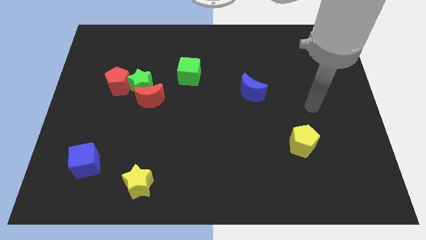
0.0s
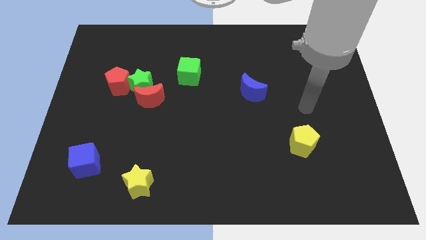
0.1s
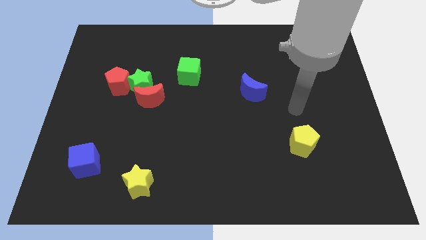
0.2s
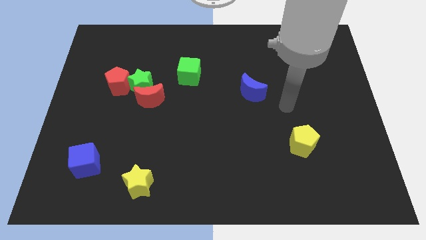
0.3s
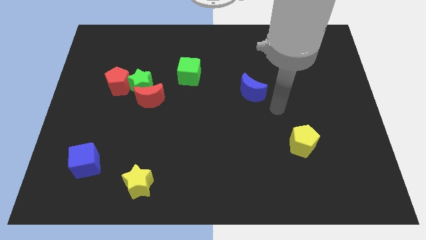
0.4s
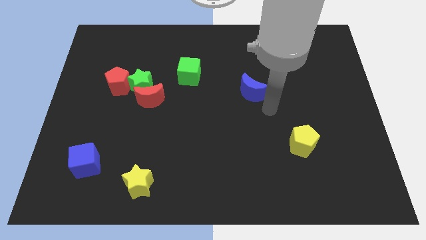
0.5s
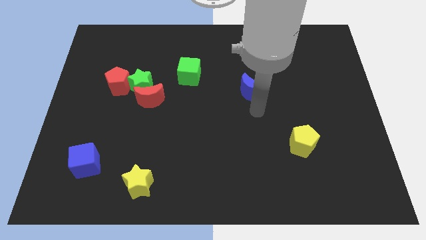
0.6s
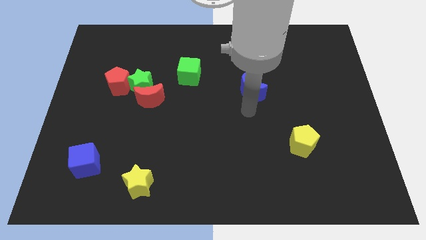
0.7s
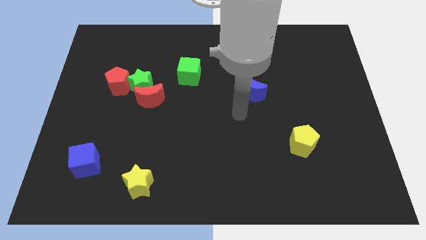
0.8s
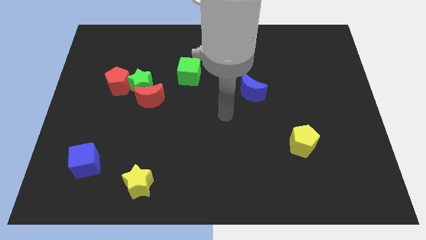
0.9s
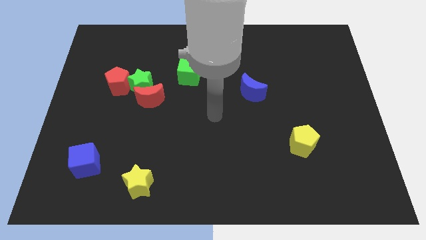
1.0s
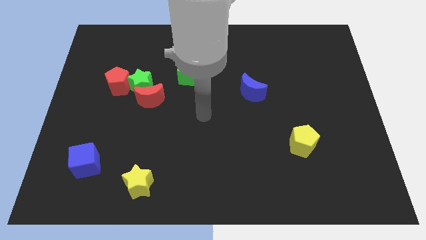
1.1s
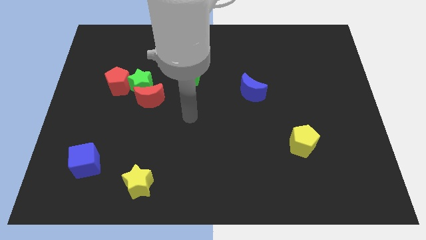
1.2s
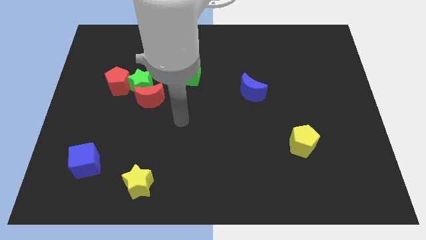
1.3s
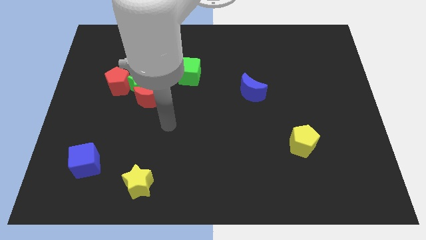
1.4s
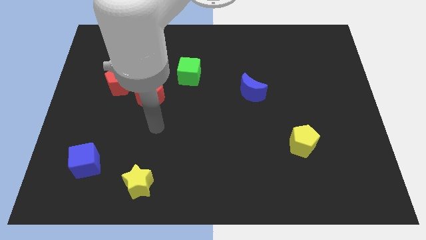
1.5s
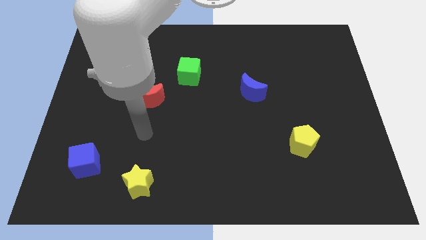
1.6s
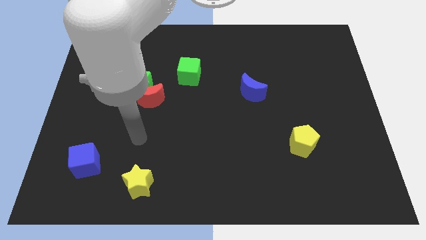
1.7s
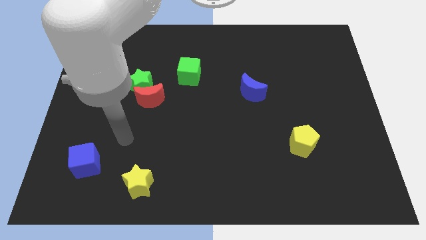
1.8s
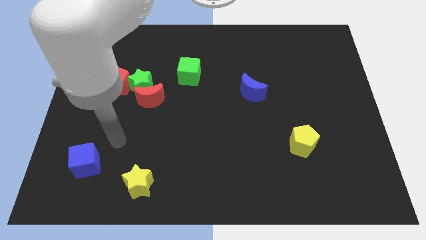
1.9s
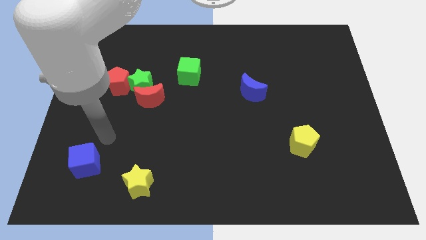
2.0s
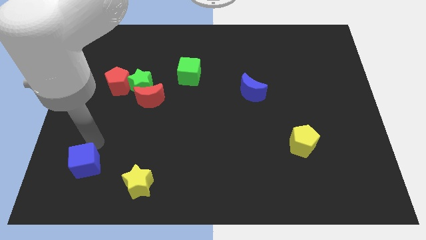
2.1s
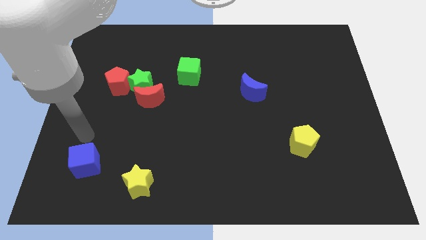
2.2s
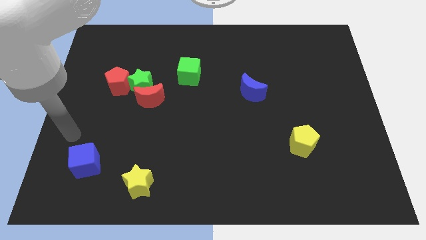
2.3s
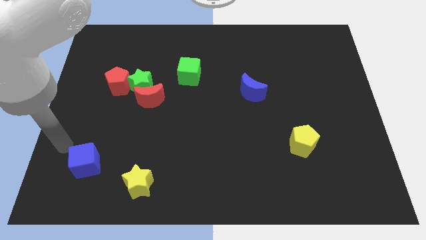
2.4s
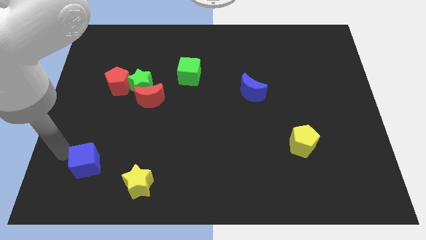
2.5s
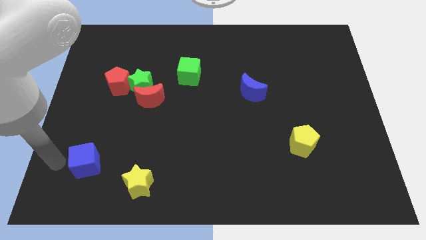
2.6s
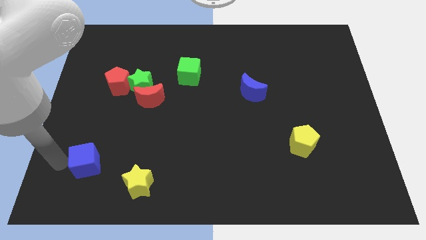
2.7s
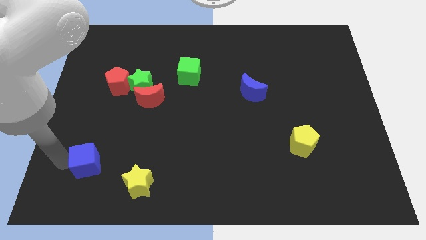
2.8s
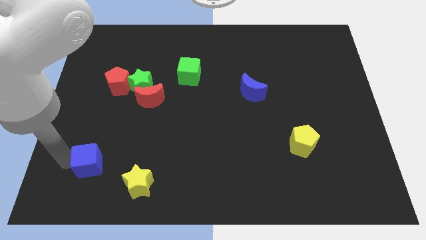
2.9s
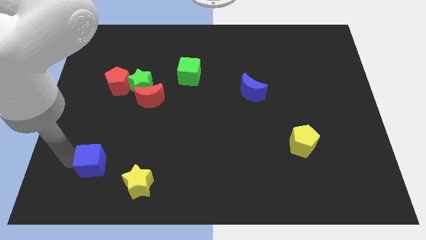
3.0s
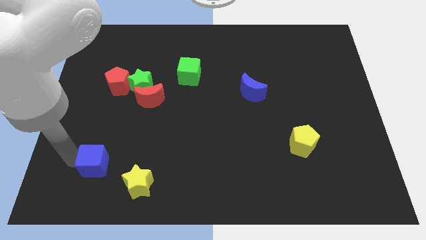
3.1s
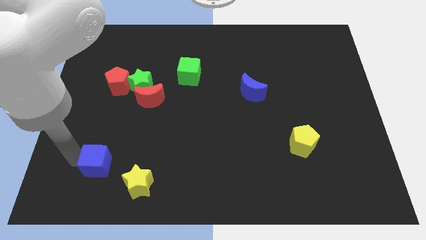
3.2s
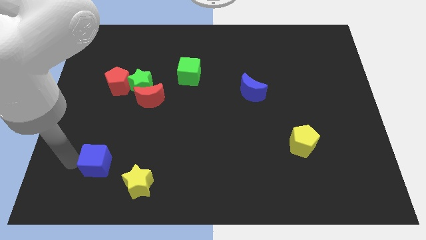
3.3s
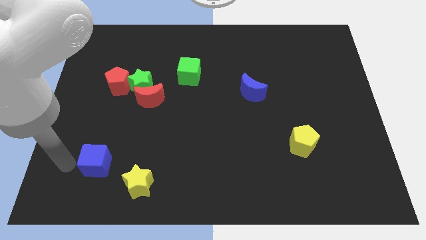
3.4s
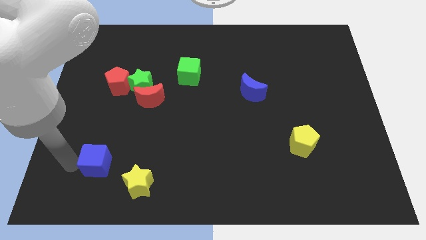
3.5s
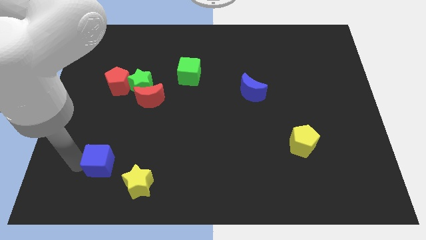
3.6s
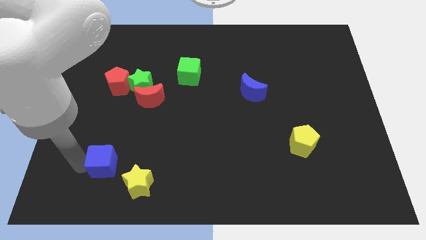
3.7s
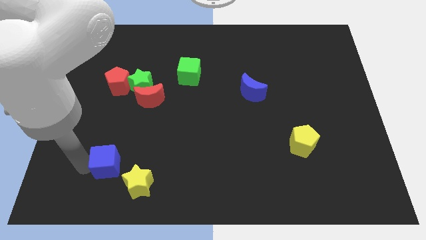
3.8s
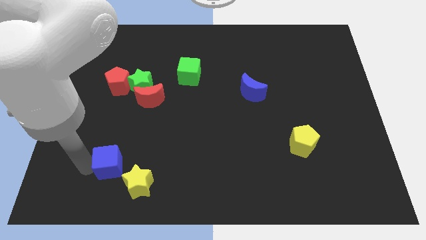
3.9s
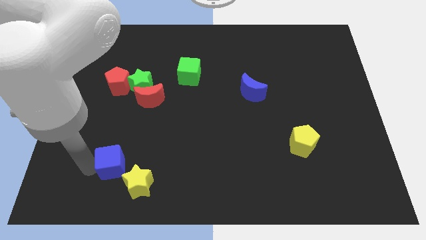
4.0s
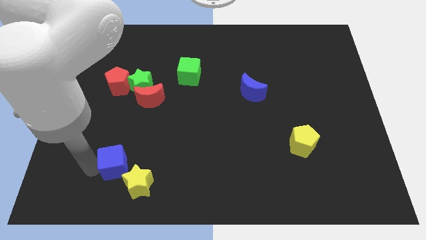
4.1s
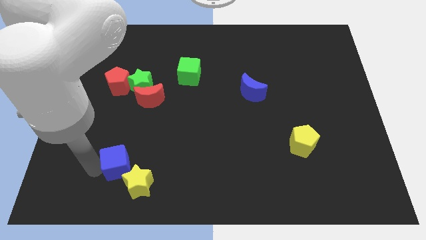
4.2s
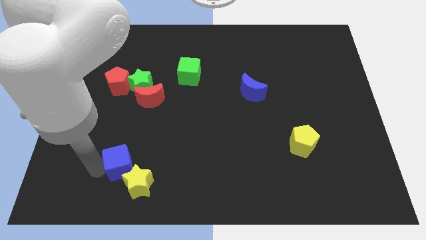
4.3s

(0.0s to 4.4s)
push the blue cube right a little bit

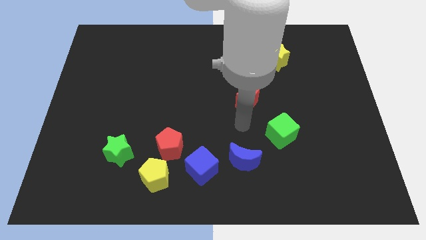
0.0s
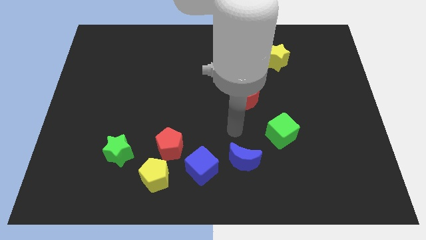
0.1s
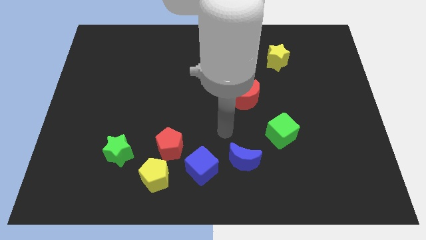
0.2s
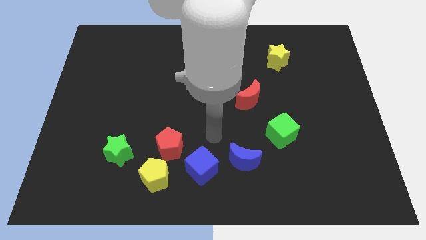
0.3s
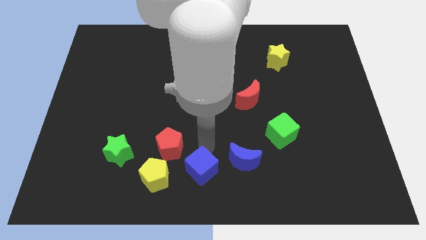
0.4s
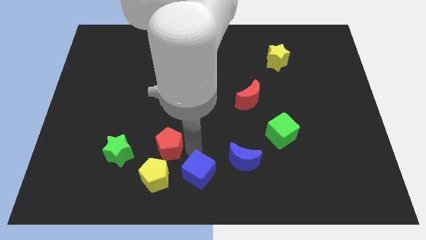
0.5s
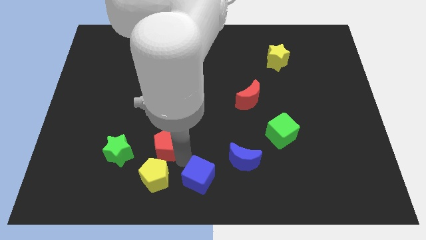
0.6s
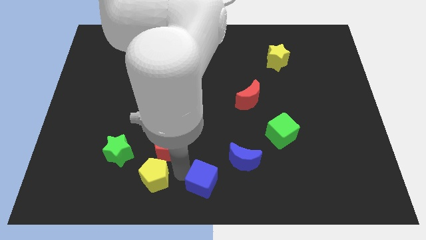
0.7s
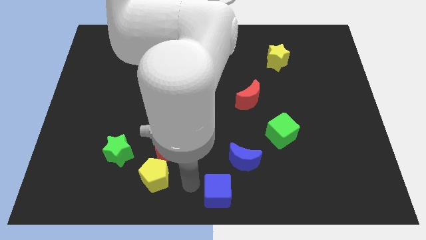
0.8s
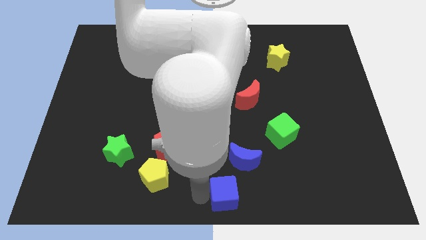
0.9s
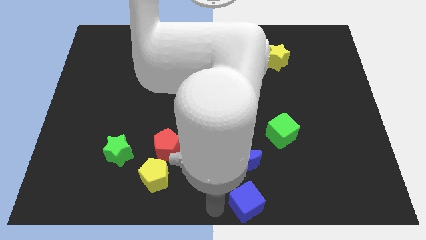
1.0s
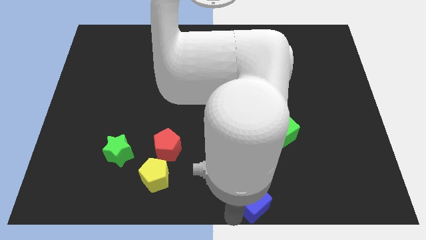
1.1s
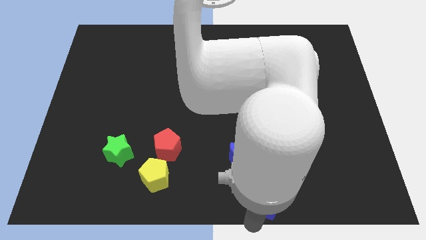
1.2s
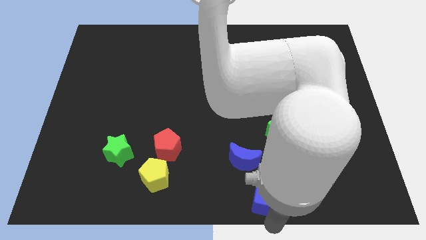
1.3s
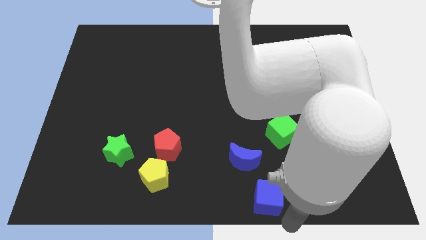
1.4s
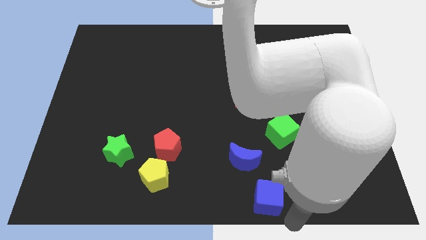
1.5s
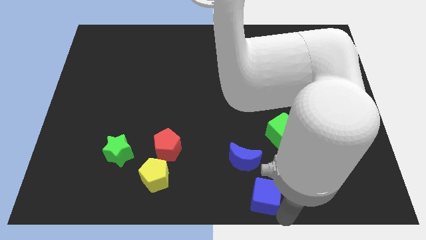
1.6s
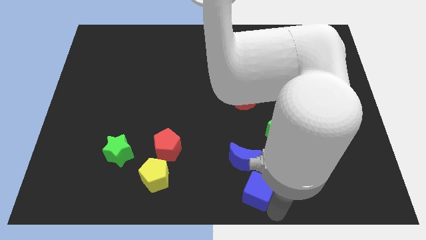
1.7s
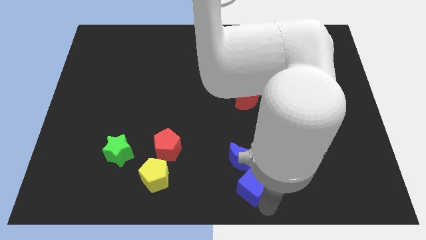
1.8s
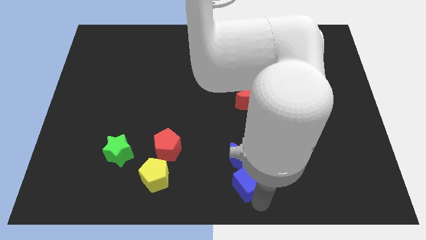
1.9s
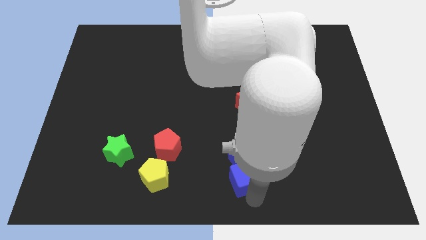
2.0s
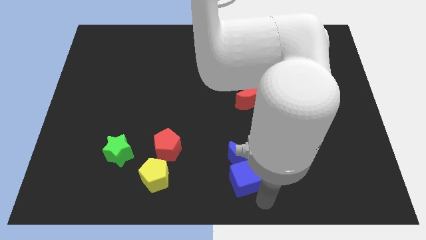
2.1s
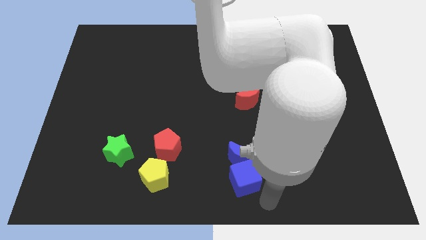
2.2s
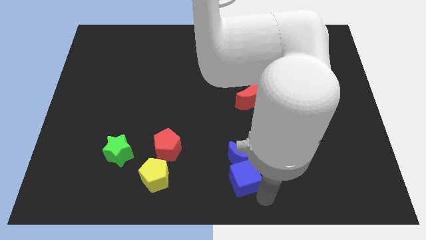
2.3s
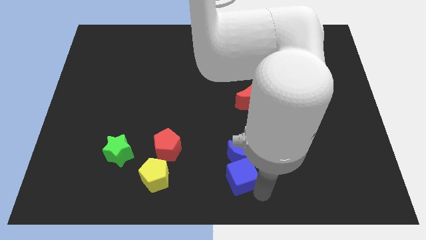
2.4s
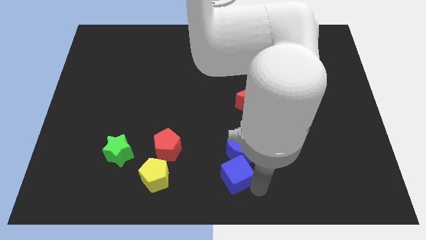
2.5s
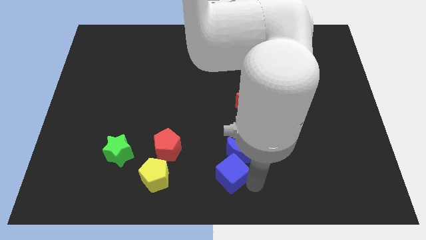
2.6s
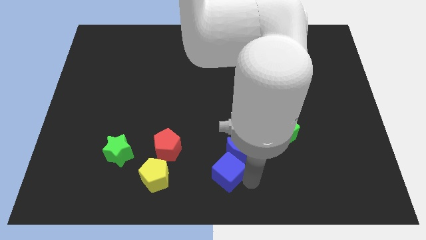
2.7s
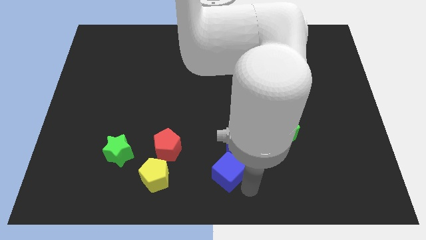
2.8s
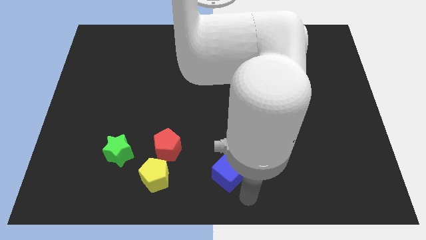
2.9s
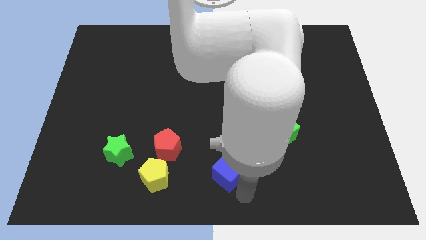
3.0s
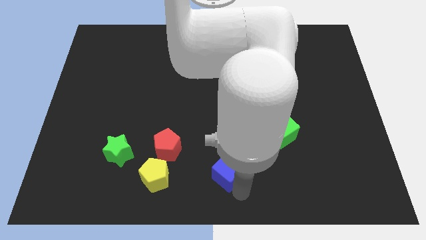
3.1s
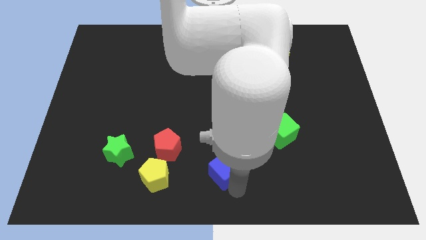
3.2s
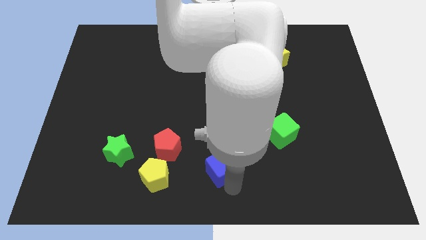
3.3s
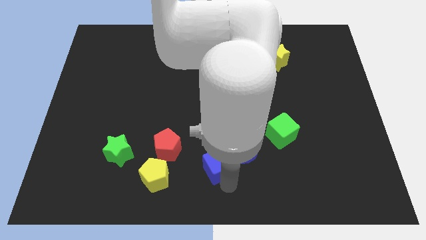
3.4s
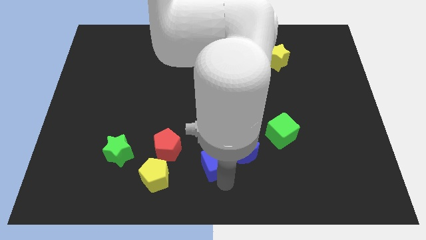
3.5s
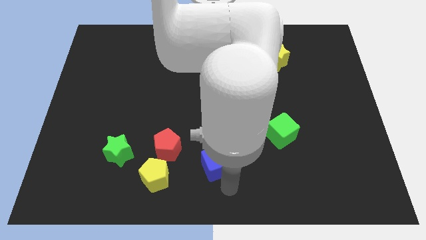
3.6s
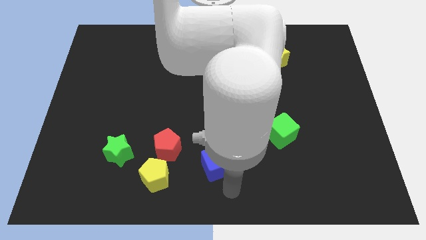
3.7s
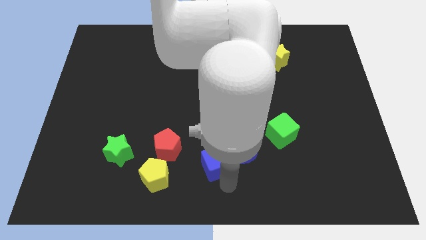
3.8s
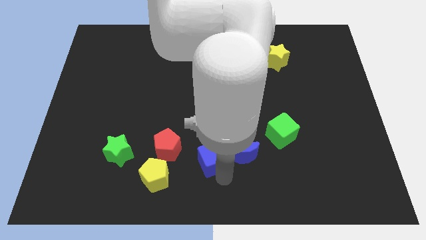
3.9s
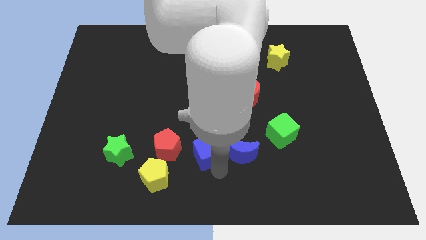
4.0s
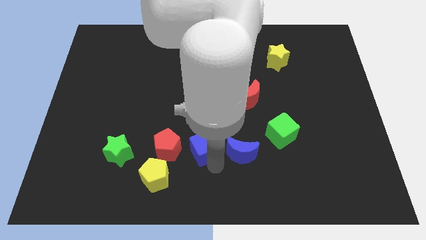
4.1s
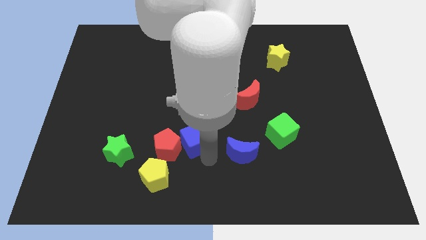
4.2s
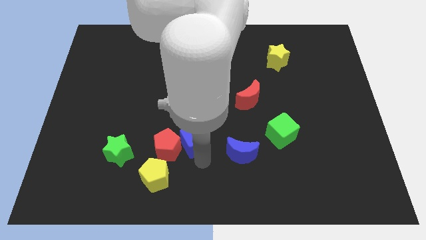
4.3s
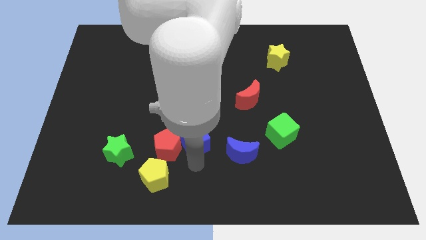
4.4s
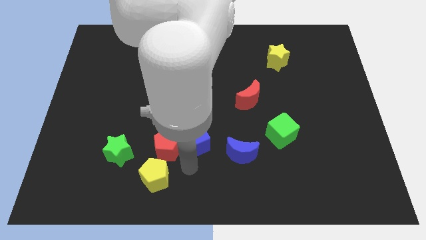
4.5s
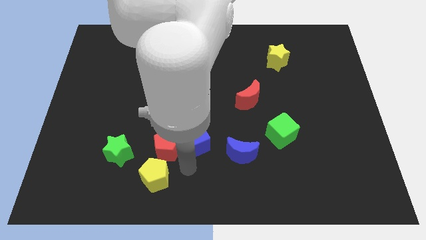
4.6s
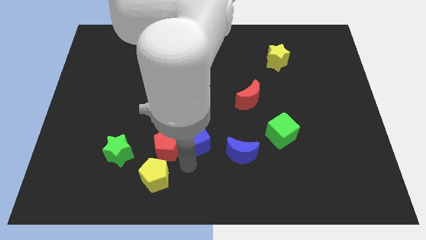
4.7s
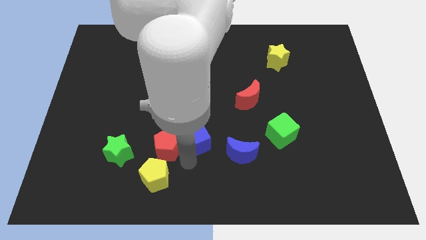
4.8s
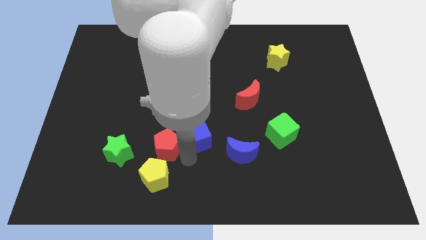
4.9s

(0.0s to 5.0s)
slightly slide the blue cube up
